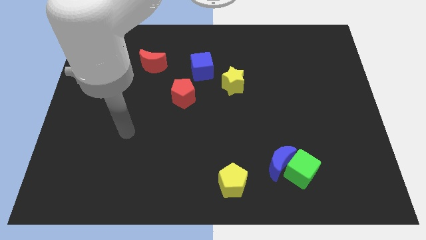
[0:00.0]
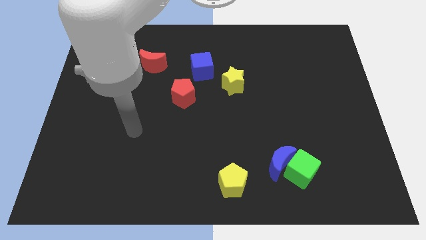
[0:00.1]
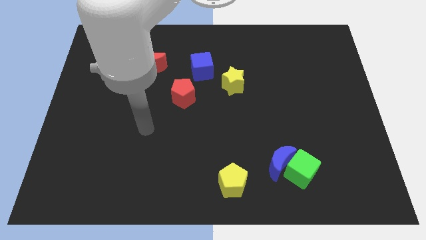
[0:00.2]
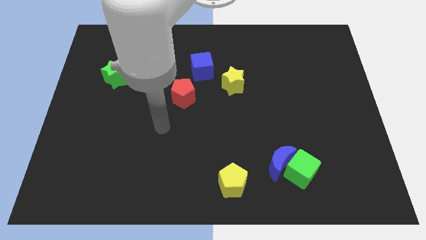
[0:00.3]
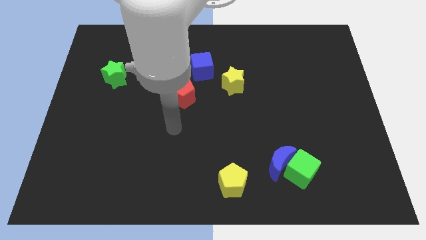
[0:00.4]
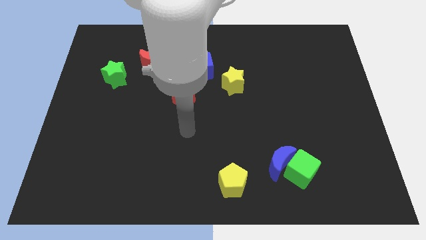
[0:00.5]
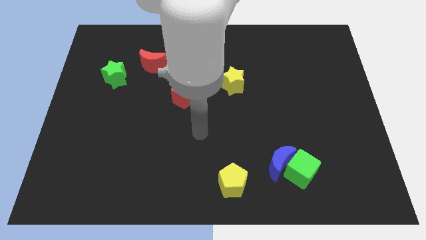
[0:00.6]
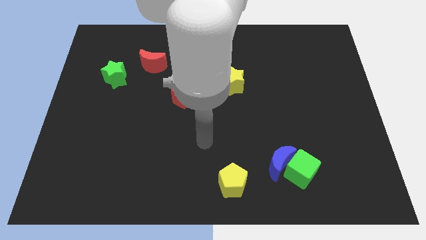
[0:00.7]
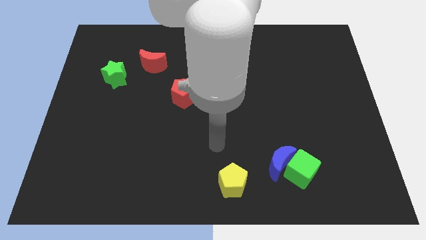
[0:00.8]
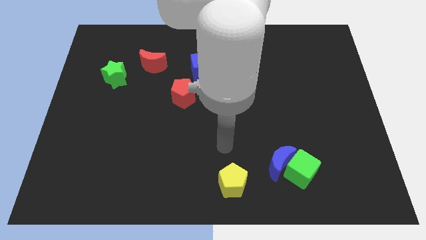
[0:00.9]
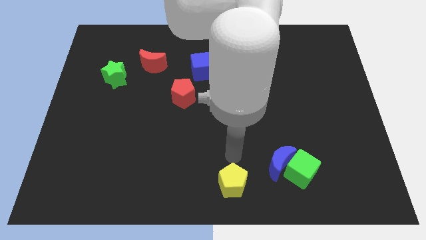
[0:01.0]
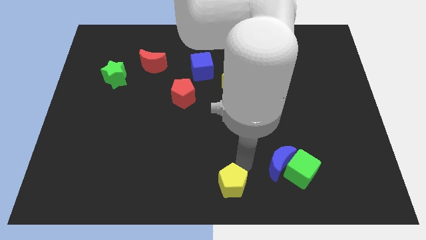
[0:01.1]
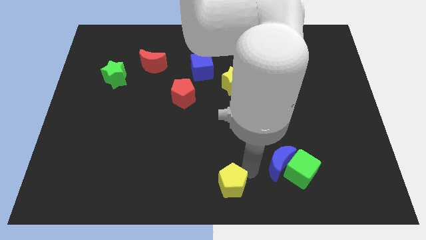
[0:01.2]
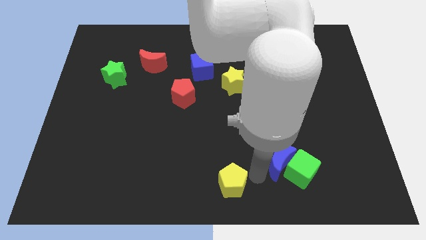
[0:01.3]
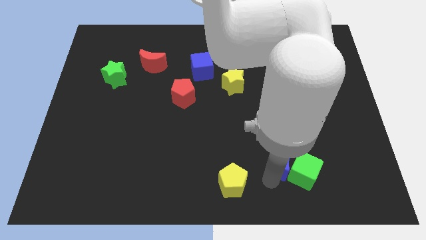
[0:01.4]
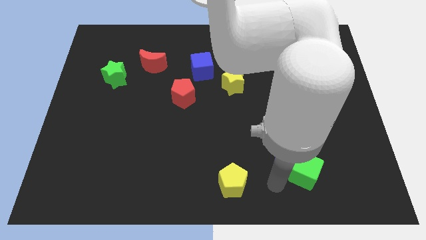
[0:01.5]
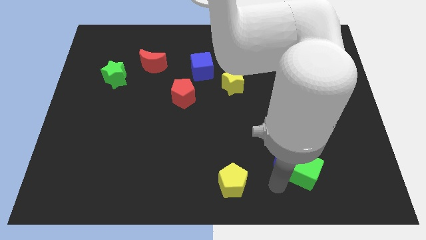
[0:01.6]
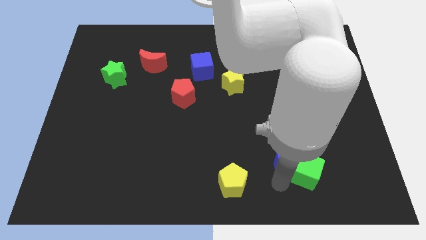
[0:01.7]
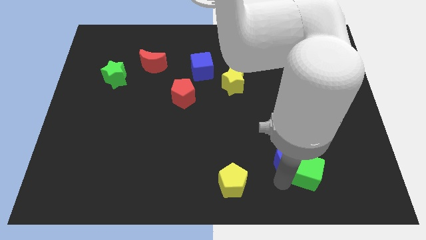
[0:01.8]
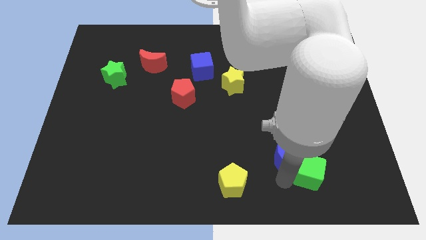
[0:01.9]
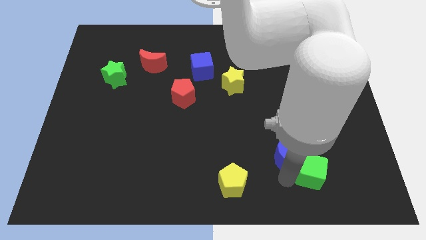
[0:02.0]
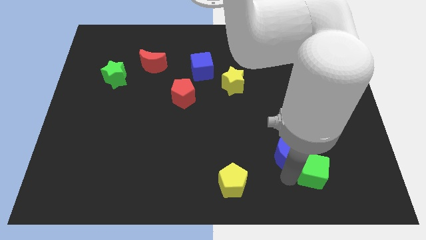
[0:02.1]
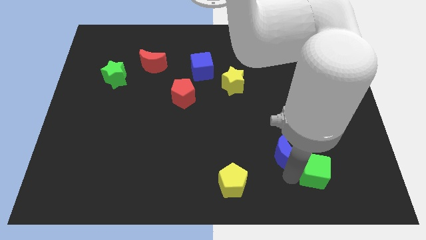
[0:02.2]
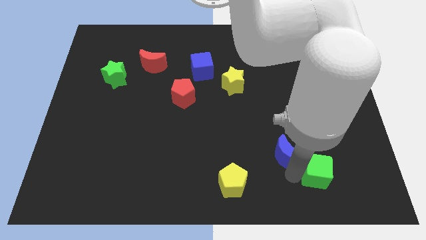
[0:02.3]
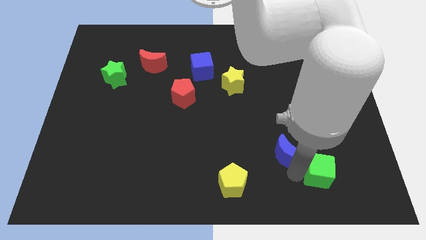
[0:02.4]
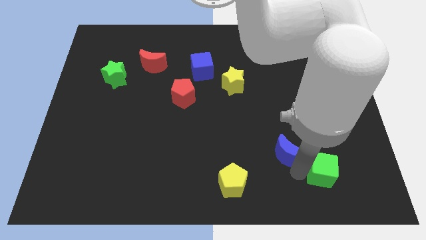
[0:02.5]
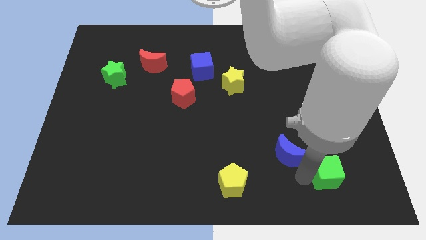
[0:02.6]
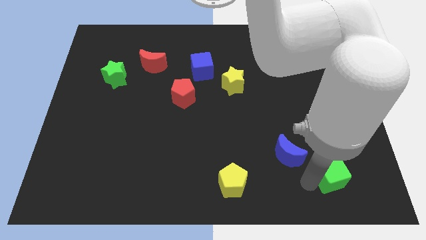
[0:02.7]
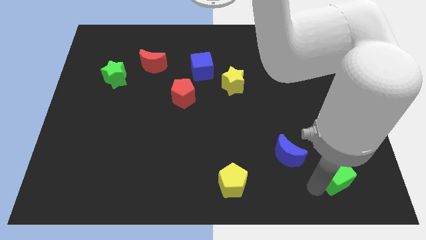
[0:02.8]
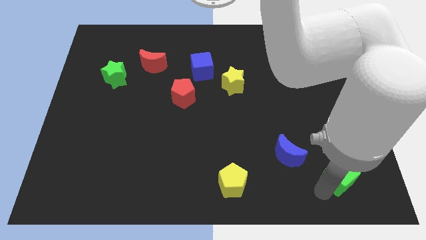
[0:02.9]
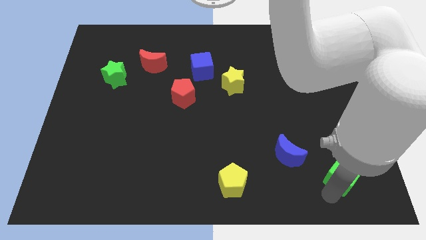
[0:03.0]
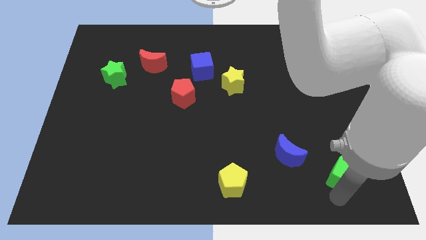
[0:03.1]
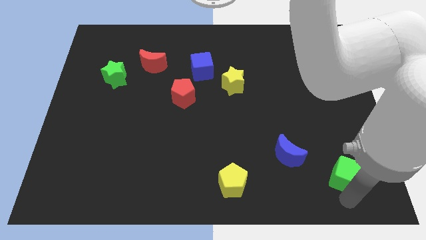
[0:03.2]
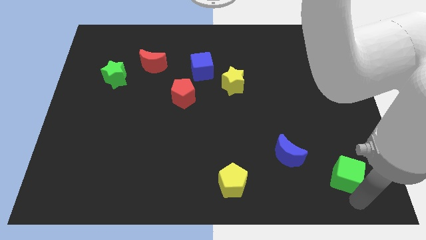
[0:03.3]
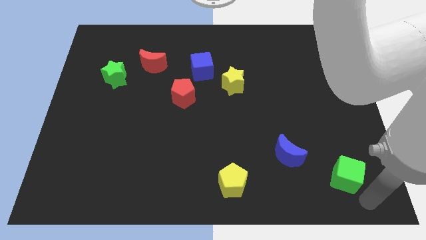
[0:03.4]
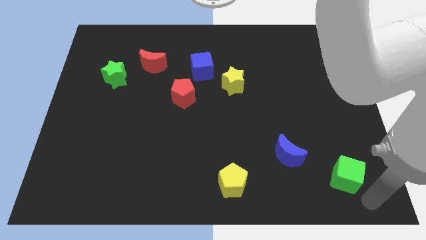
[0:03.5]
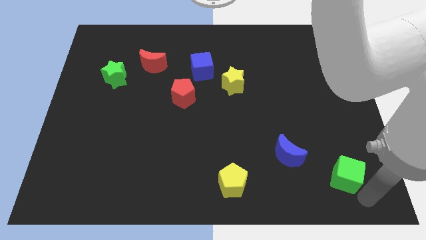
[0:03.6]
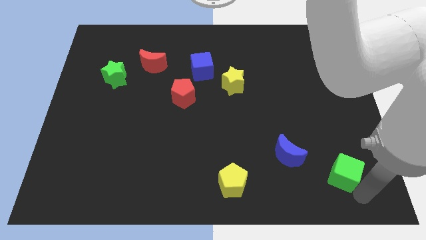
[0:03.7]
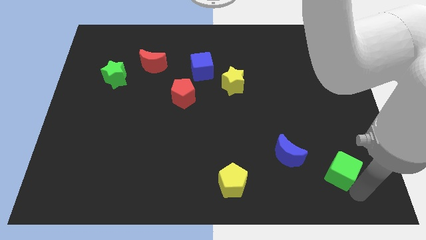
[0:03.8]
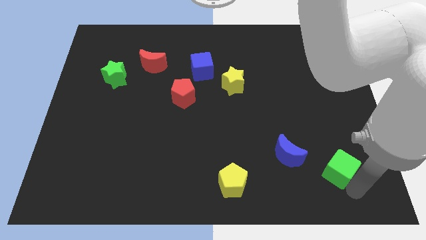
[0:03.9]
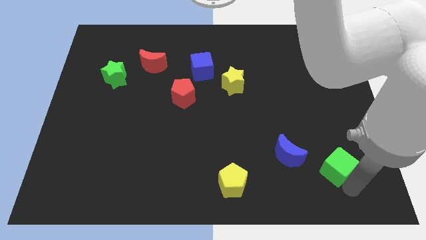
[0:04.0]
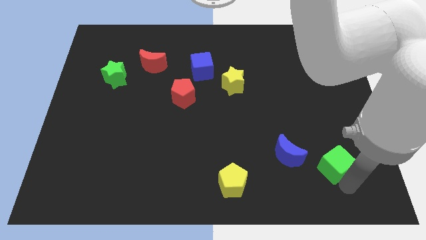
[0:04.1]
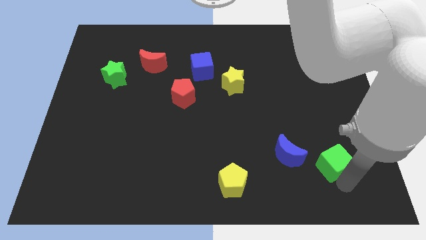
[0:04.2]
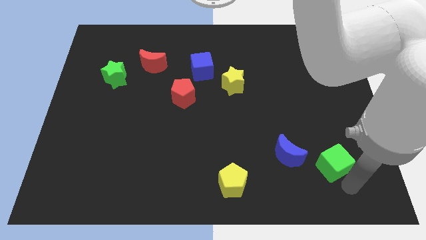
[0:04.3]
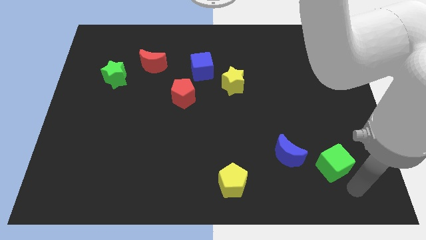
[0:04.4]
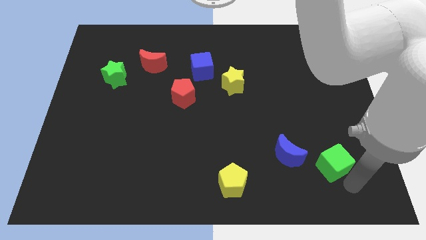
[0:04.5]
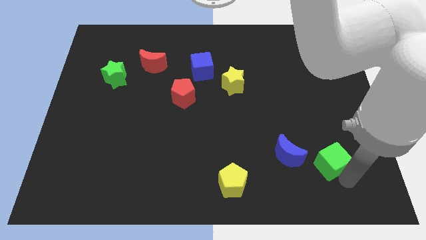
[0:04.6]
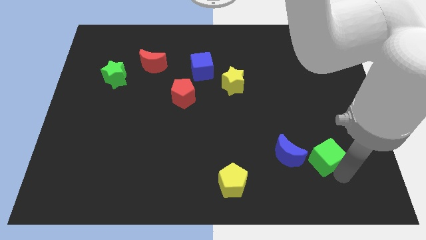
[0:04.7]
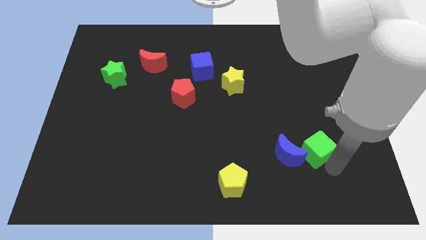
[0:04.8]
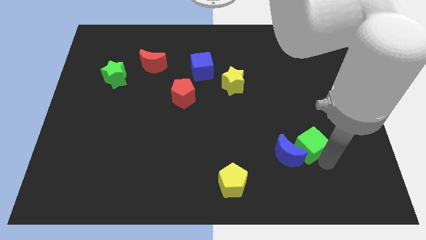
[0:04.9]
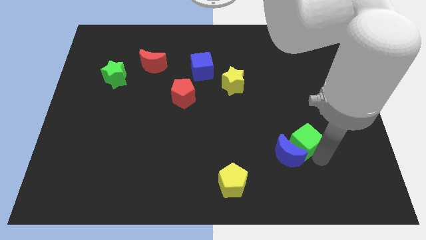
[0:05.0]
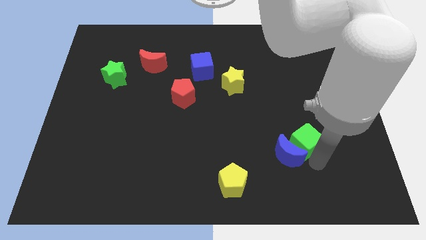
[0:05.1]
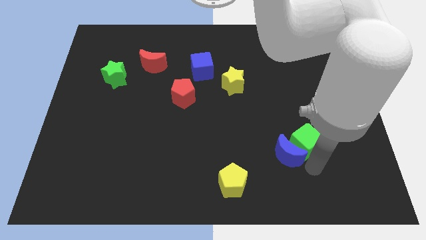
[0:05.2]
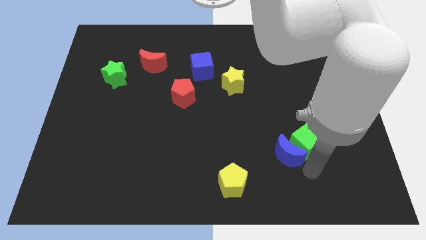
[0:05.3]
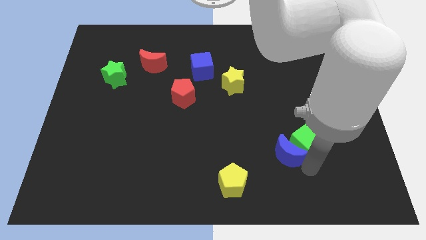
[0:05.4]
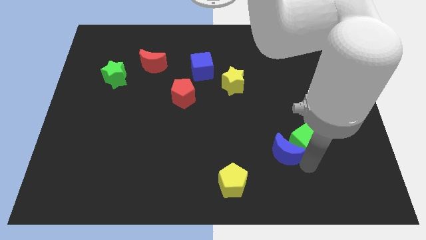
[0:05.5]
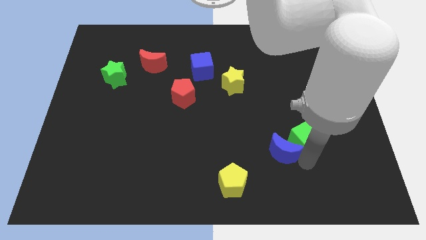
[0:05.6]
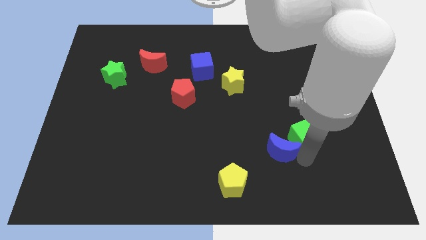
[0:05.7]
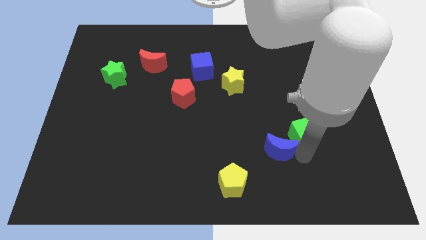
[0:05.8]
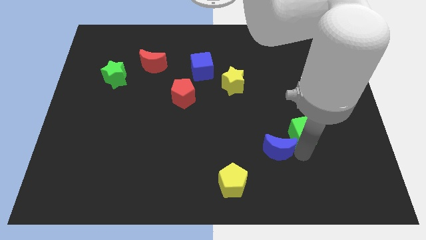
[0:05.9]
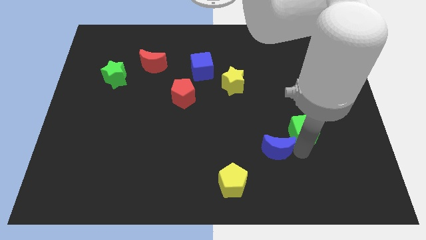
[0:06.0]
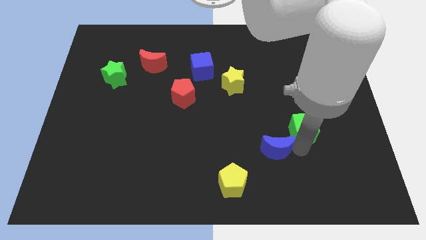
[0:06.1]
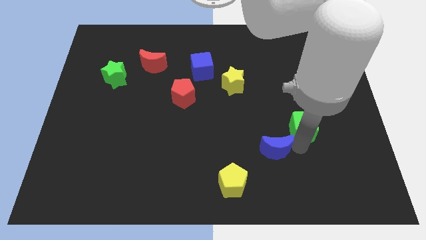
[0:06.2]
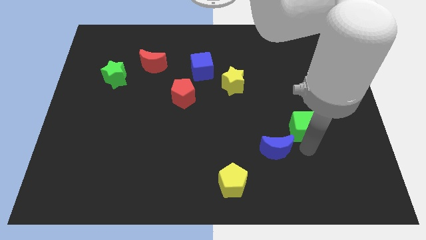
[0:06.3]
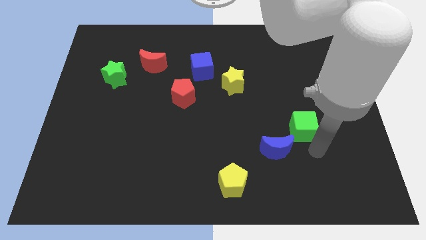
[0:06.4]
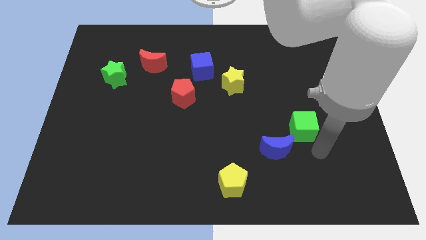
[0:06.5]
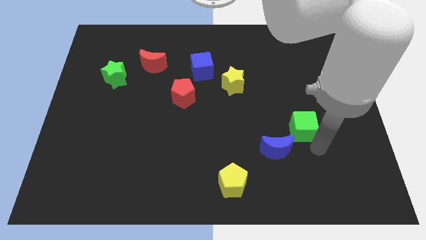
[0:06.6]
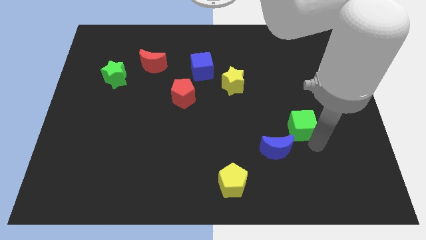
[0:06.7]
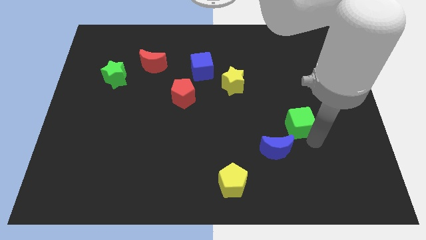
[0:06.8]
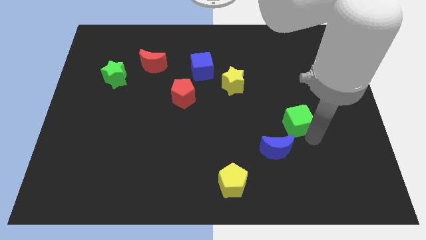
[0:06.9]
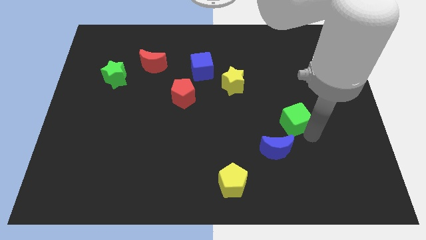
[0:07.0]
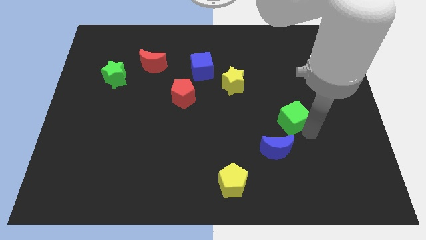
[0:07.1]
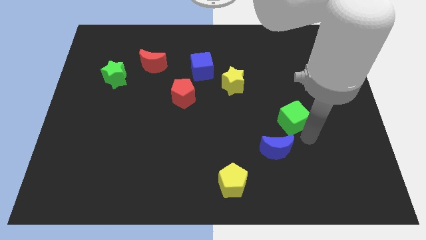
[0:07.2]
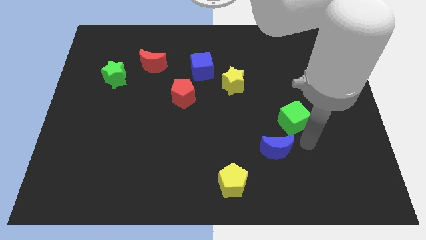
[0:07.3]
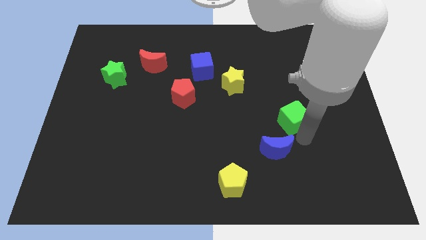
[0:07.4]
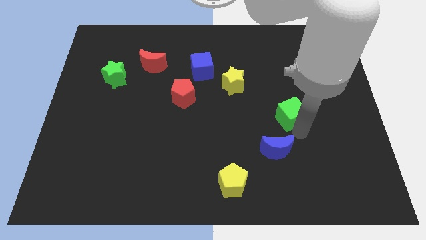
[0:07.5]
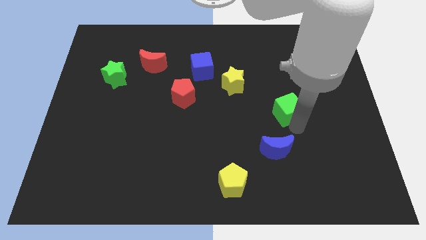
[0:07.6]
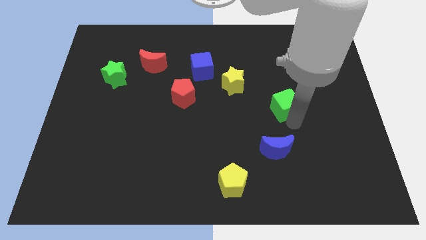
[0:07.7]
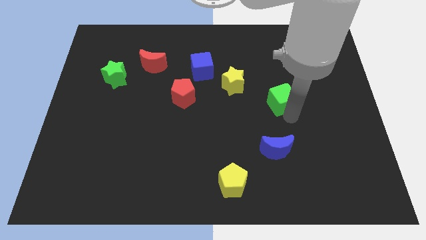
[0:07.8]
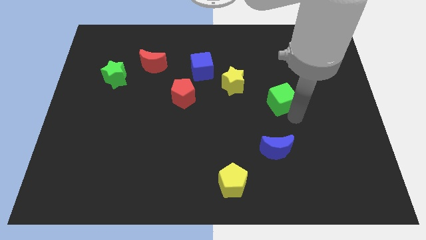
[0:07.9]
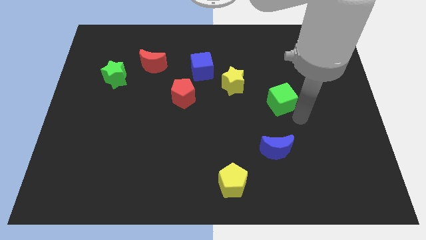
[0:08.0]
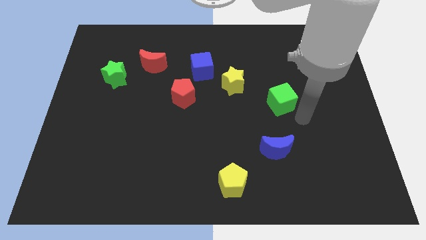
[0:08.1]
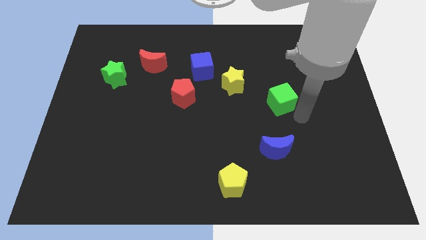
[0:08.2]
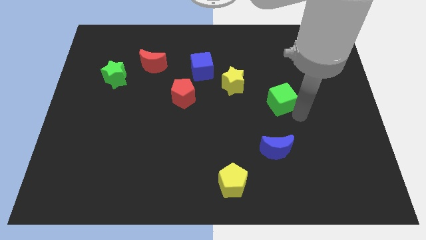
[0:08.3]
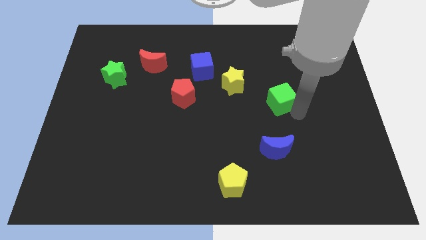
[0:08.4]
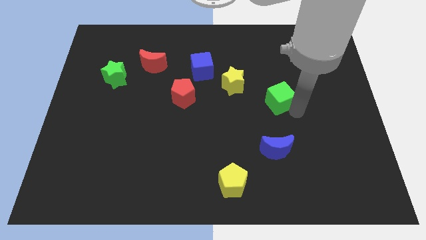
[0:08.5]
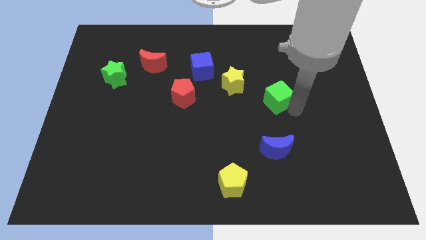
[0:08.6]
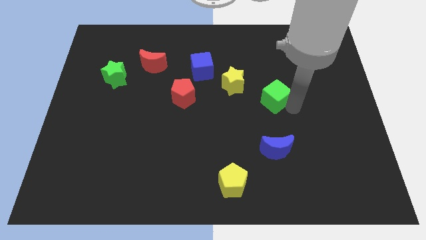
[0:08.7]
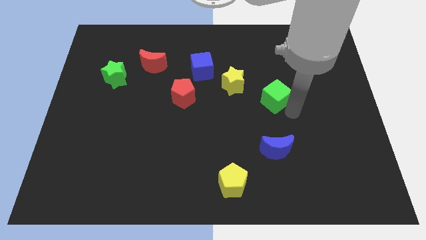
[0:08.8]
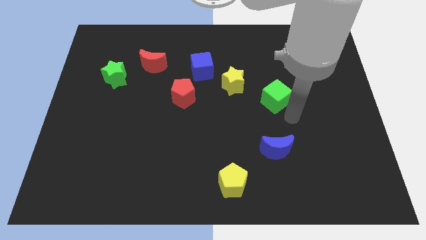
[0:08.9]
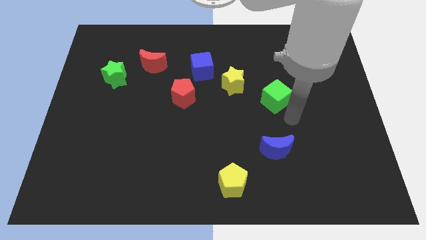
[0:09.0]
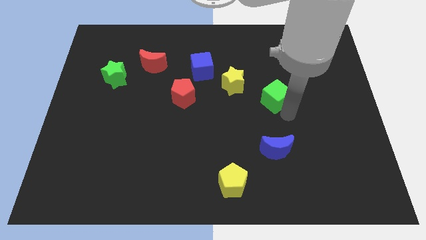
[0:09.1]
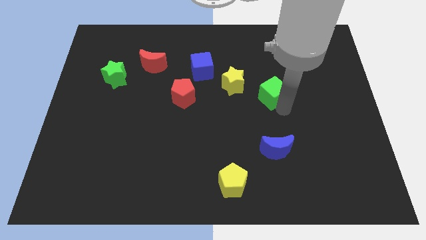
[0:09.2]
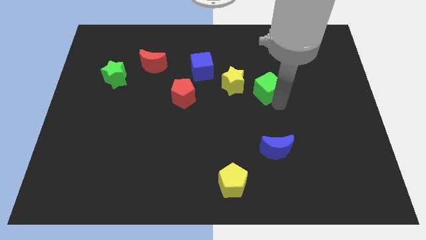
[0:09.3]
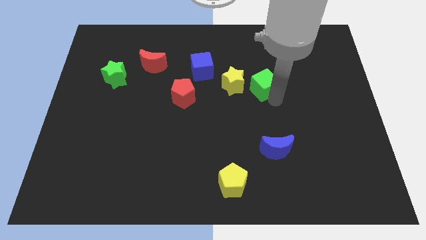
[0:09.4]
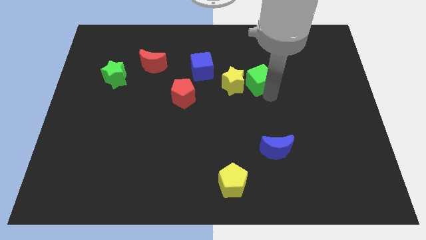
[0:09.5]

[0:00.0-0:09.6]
push the green cube to the top right side of the yellow star
